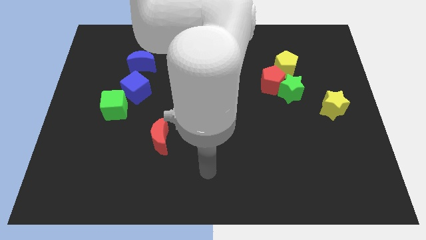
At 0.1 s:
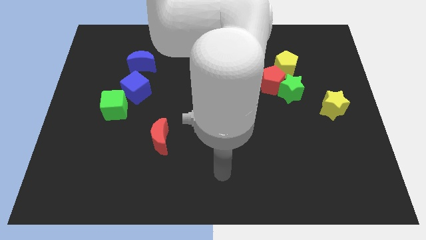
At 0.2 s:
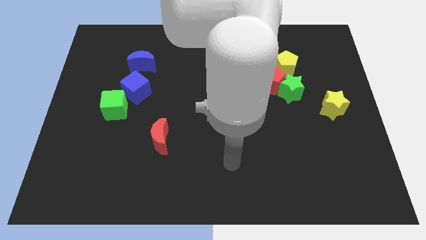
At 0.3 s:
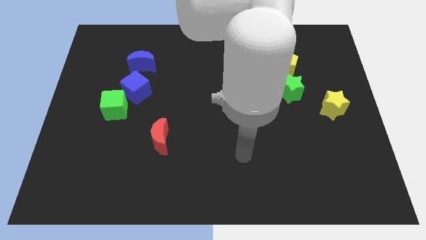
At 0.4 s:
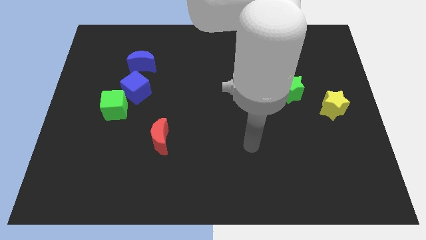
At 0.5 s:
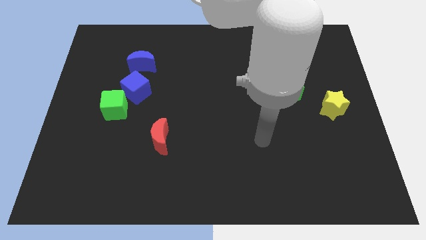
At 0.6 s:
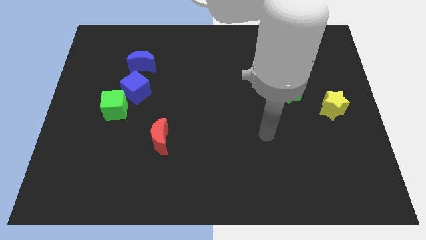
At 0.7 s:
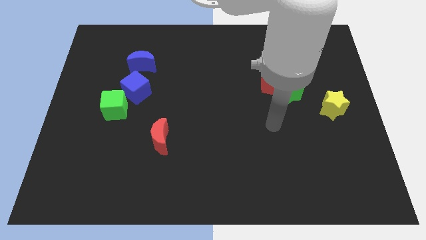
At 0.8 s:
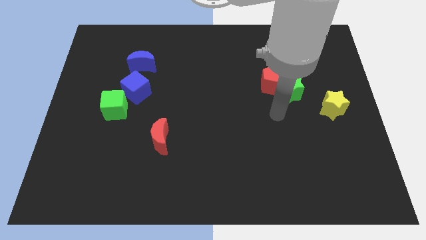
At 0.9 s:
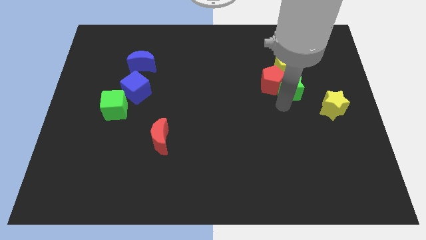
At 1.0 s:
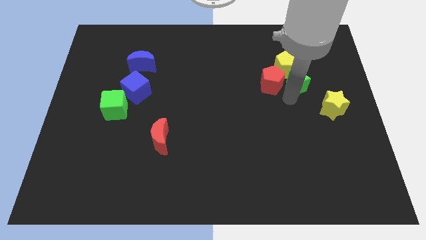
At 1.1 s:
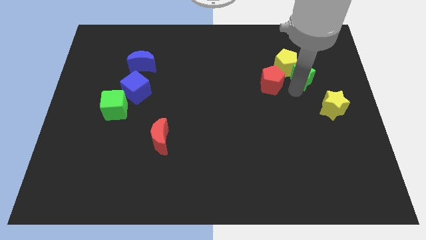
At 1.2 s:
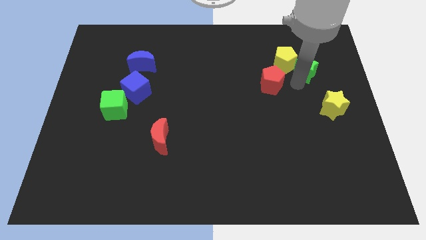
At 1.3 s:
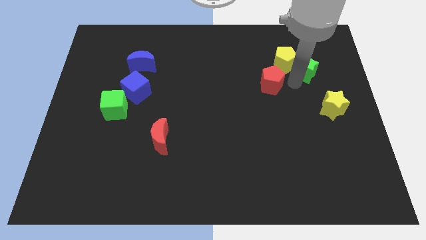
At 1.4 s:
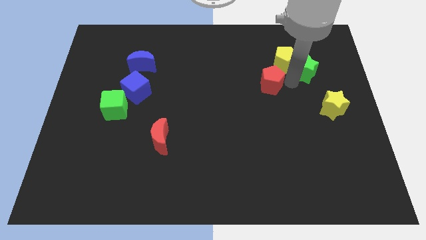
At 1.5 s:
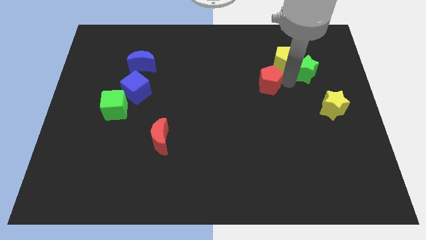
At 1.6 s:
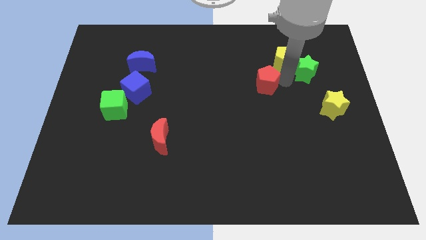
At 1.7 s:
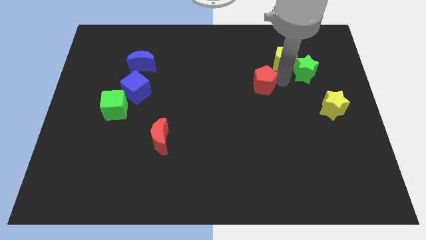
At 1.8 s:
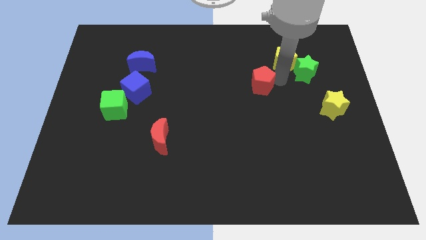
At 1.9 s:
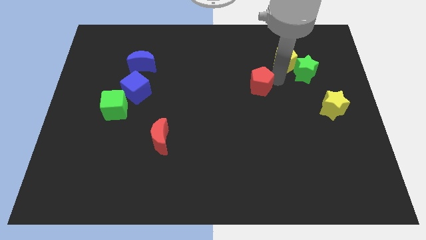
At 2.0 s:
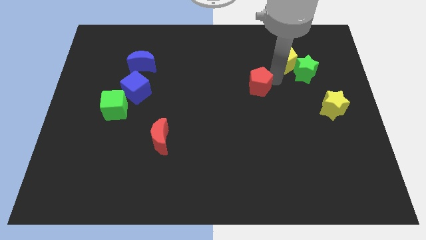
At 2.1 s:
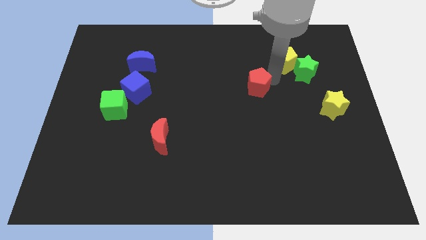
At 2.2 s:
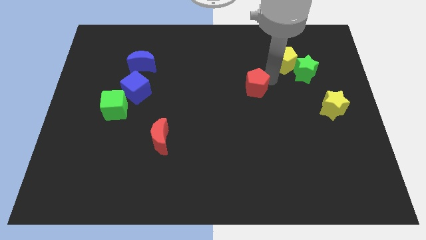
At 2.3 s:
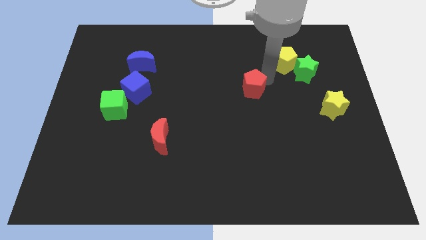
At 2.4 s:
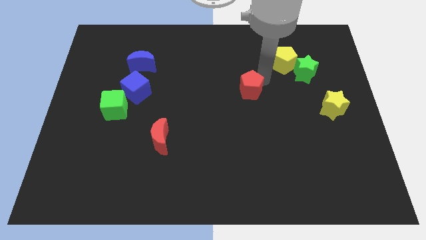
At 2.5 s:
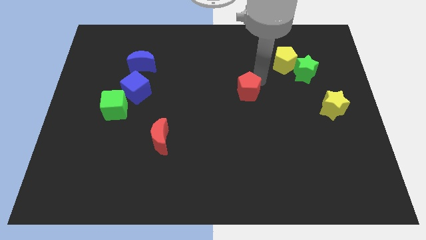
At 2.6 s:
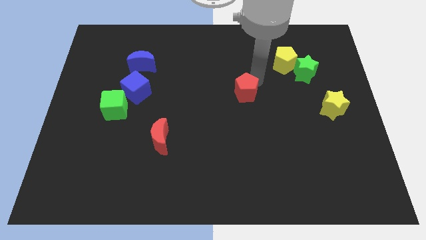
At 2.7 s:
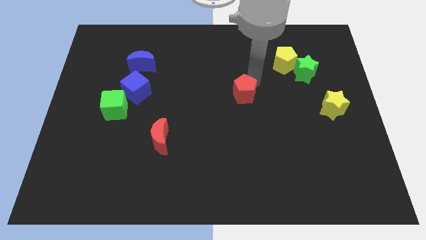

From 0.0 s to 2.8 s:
slide the red pentagon slightly left

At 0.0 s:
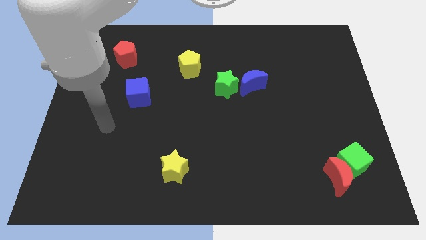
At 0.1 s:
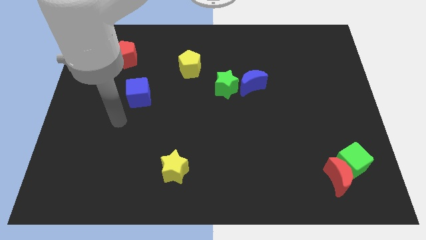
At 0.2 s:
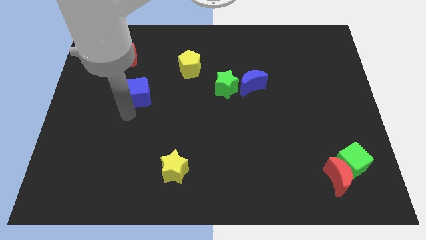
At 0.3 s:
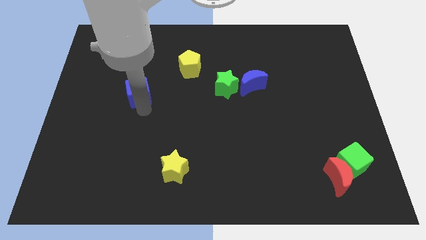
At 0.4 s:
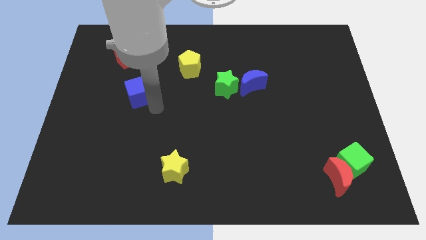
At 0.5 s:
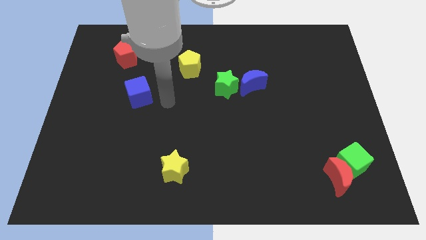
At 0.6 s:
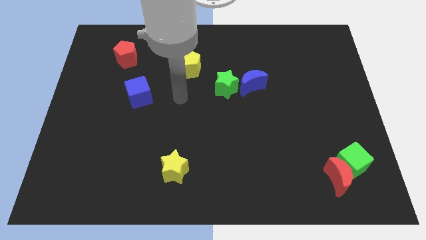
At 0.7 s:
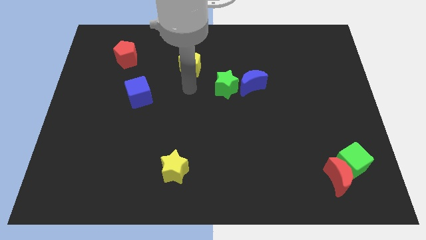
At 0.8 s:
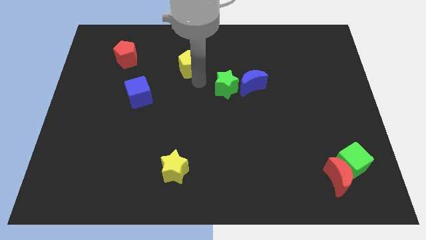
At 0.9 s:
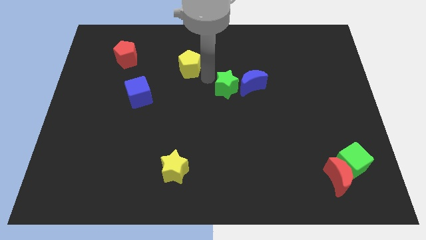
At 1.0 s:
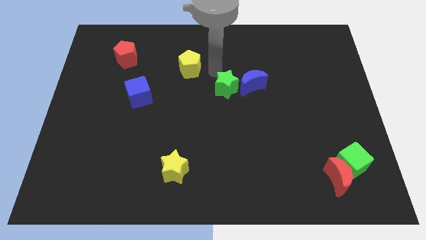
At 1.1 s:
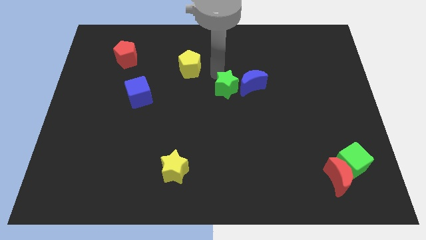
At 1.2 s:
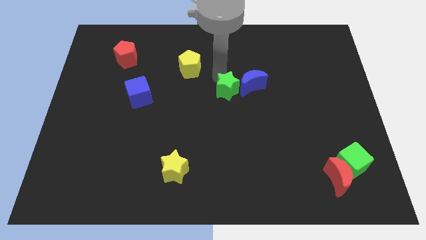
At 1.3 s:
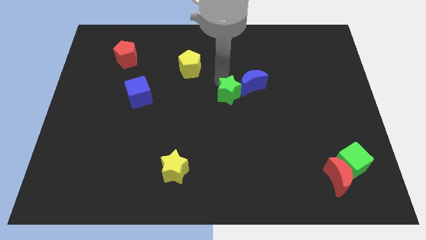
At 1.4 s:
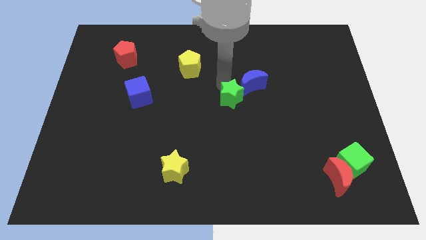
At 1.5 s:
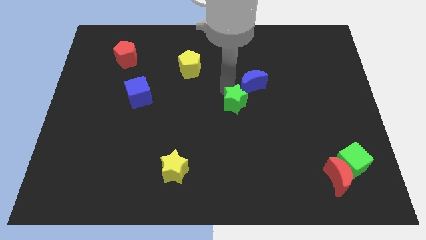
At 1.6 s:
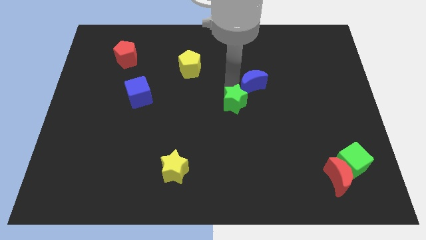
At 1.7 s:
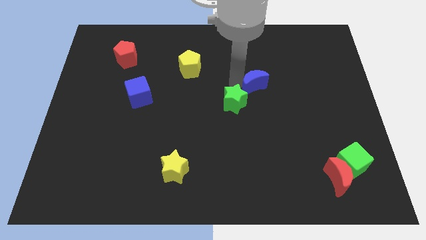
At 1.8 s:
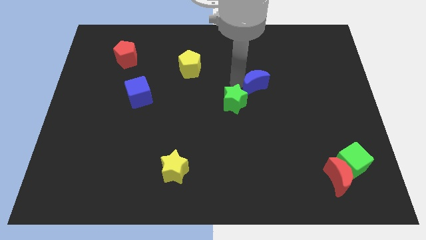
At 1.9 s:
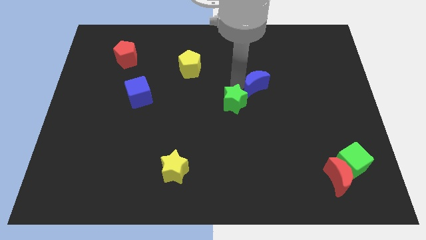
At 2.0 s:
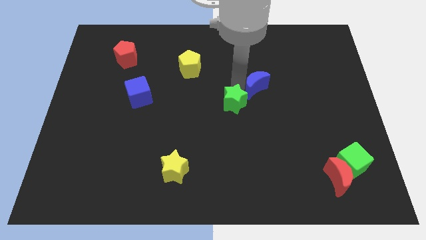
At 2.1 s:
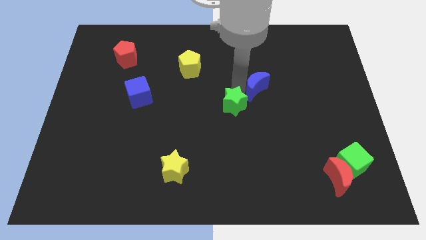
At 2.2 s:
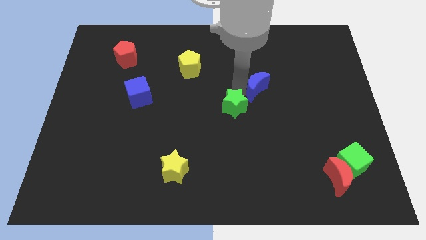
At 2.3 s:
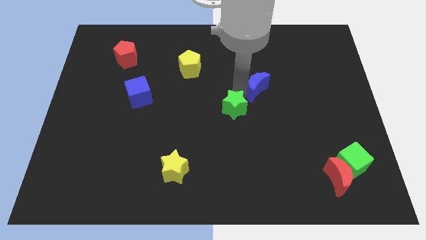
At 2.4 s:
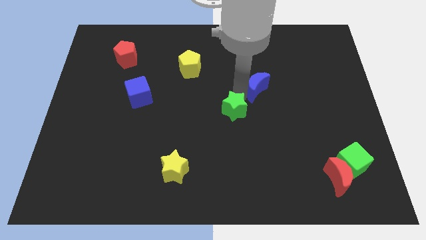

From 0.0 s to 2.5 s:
push the green star downwards slightly

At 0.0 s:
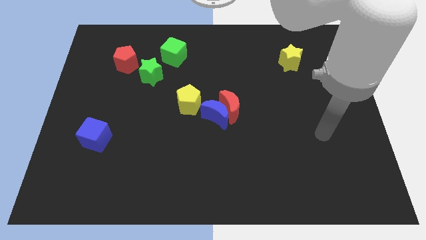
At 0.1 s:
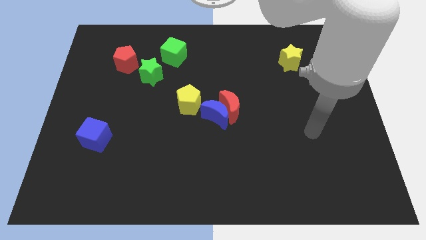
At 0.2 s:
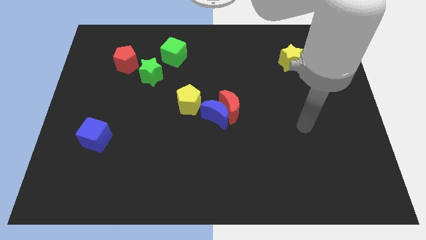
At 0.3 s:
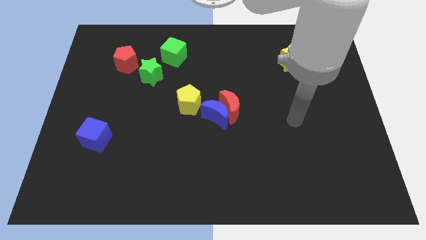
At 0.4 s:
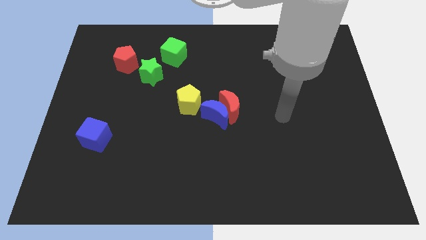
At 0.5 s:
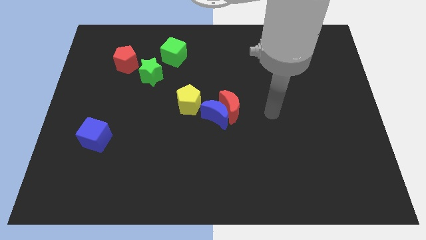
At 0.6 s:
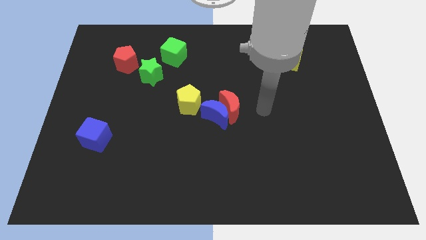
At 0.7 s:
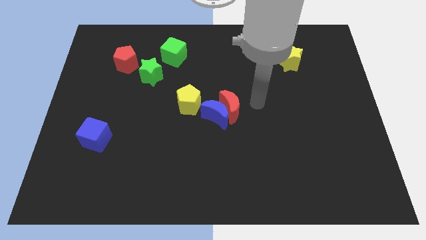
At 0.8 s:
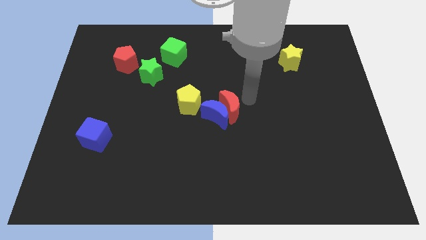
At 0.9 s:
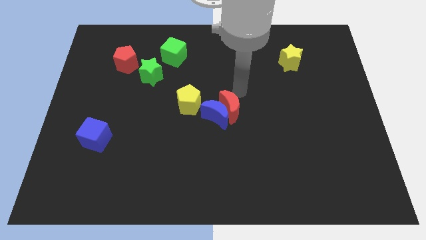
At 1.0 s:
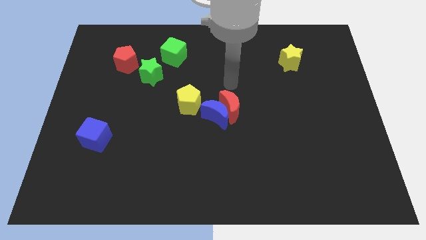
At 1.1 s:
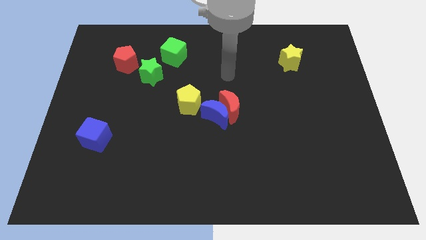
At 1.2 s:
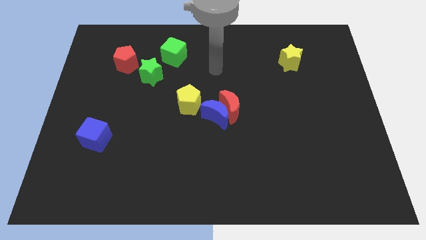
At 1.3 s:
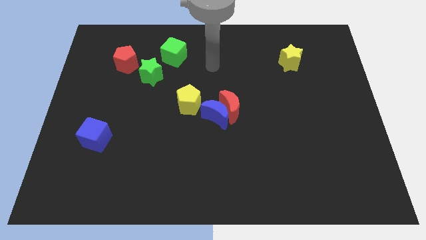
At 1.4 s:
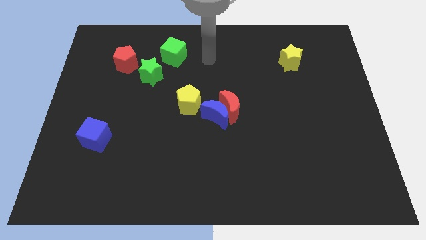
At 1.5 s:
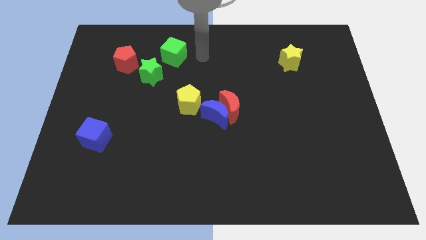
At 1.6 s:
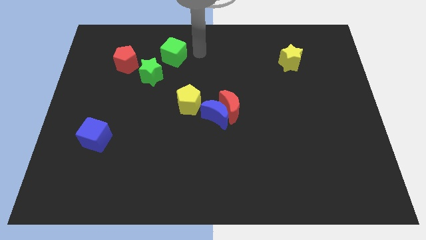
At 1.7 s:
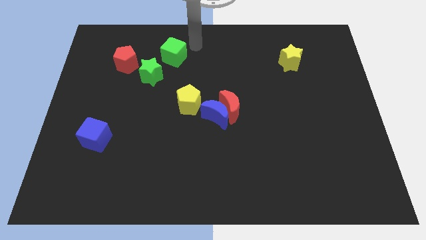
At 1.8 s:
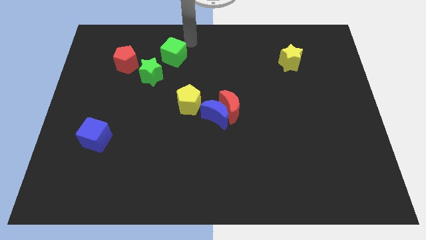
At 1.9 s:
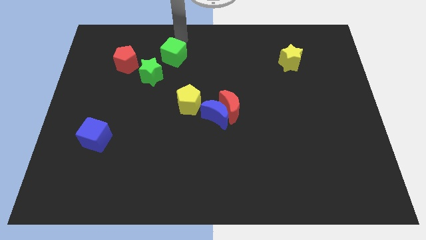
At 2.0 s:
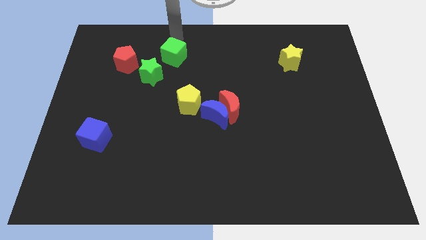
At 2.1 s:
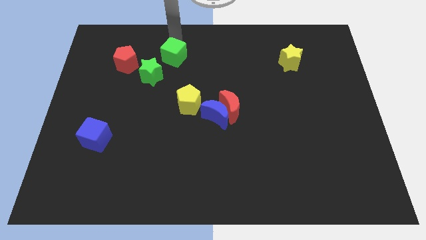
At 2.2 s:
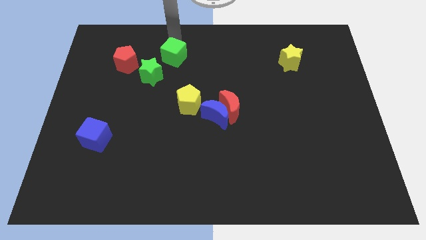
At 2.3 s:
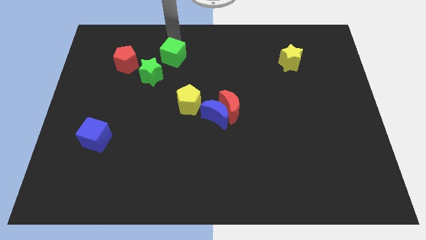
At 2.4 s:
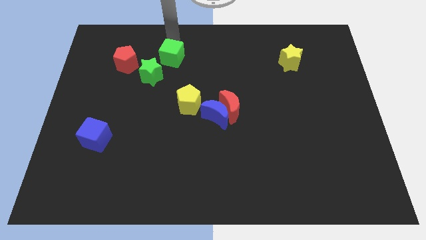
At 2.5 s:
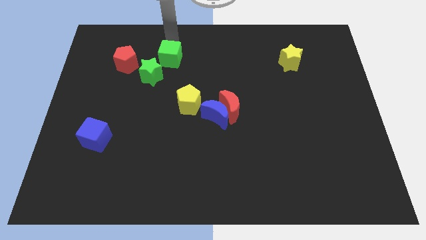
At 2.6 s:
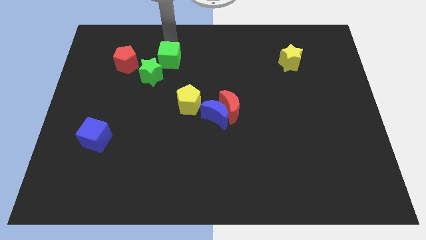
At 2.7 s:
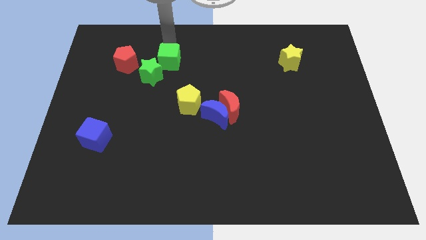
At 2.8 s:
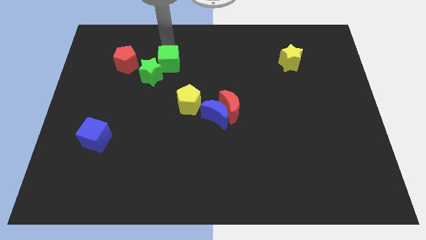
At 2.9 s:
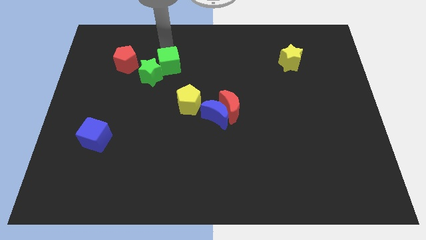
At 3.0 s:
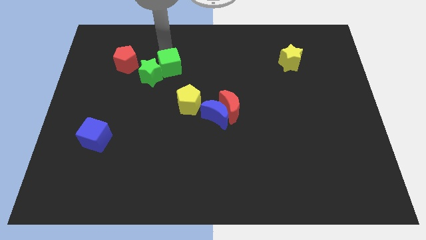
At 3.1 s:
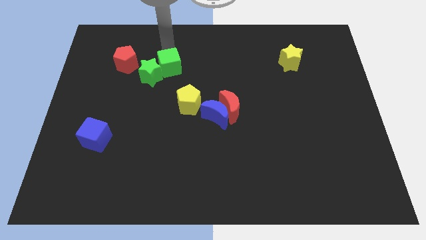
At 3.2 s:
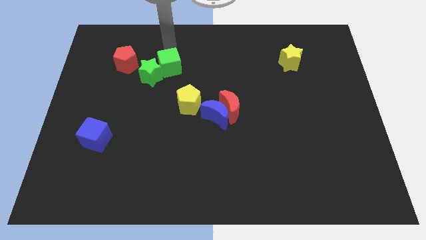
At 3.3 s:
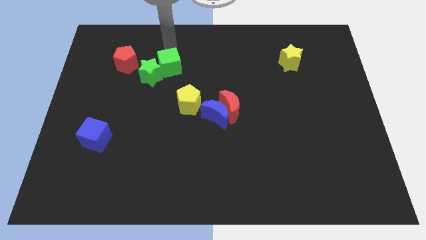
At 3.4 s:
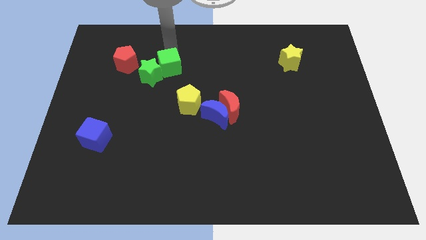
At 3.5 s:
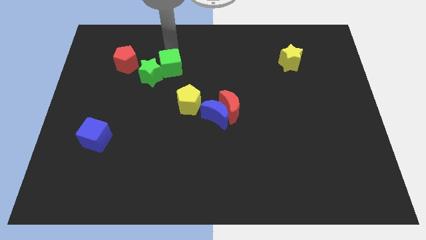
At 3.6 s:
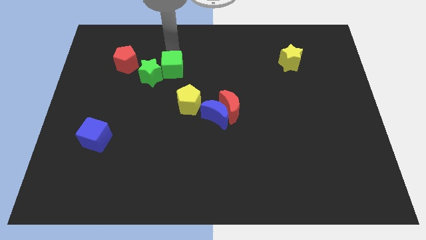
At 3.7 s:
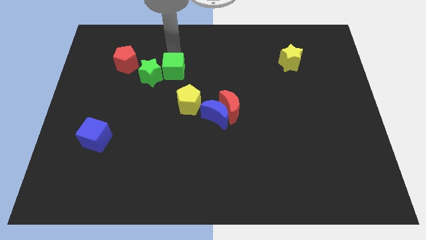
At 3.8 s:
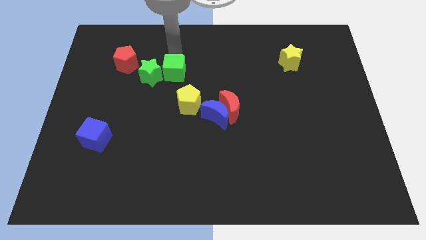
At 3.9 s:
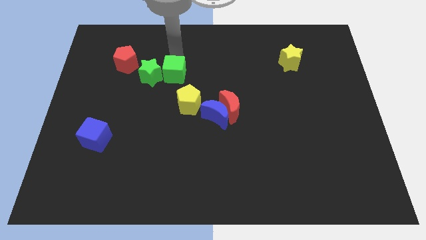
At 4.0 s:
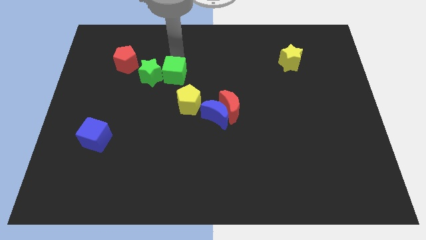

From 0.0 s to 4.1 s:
push the green cube somewhat down
